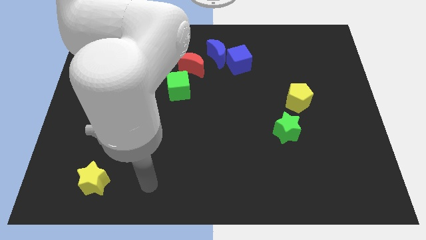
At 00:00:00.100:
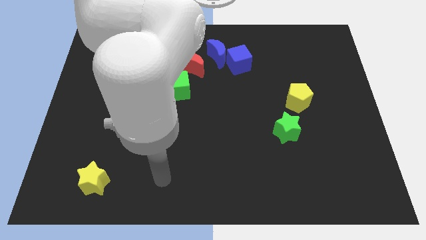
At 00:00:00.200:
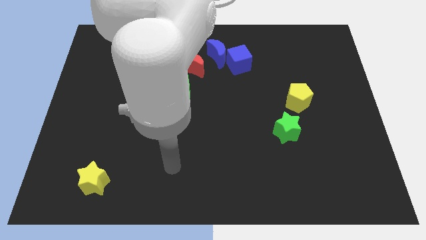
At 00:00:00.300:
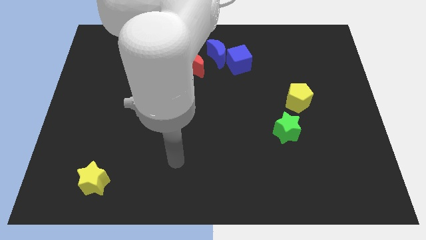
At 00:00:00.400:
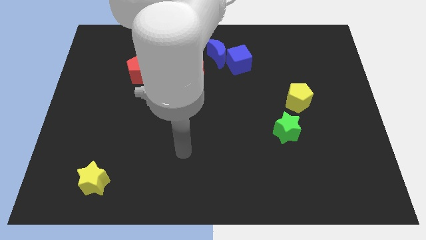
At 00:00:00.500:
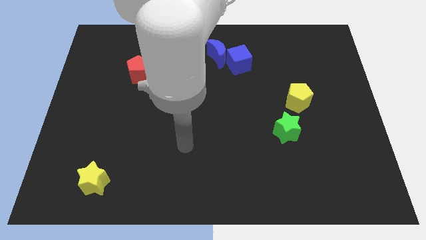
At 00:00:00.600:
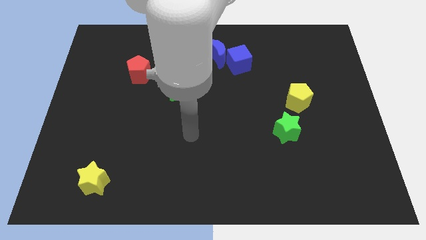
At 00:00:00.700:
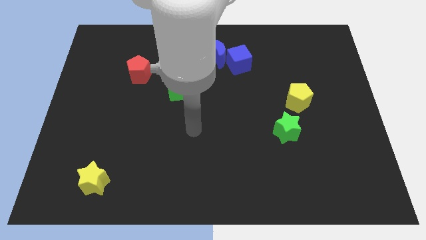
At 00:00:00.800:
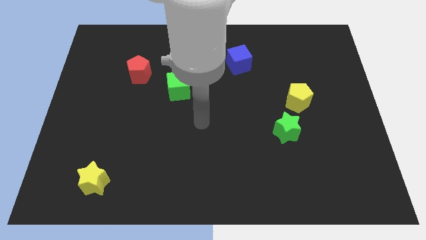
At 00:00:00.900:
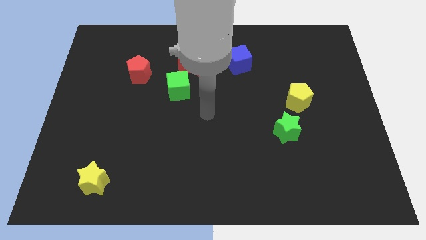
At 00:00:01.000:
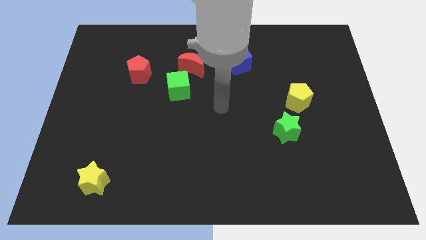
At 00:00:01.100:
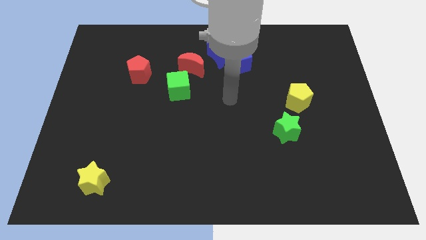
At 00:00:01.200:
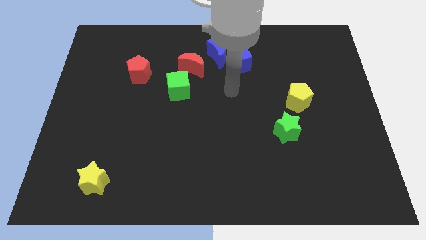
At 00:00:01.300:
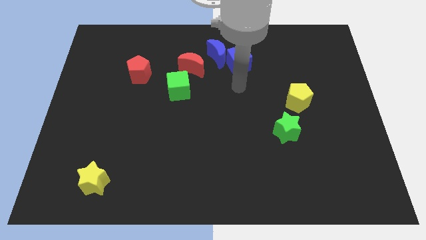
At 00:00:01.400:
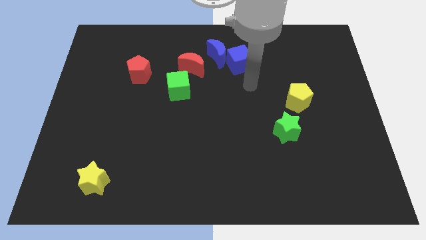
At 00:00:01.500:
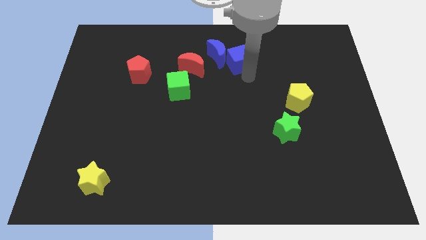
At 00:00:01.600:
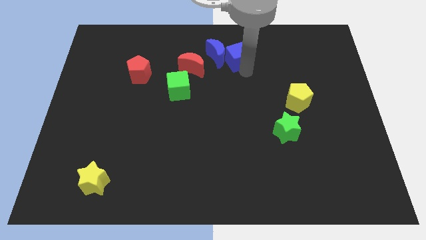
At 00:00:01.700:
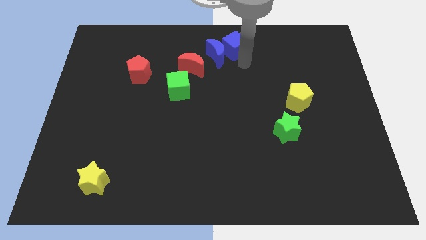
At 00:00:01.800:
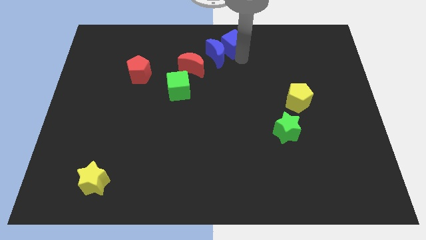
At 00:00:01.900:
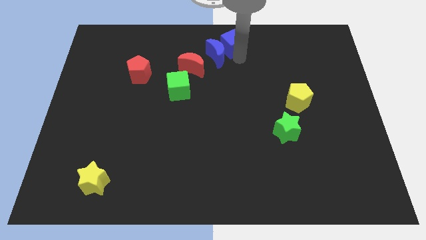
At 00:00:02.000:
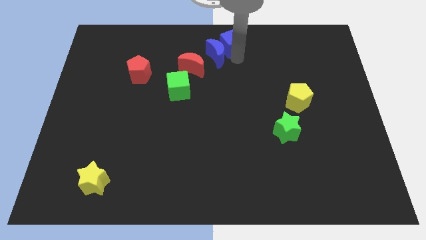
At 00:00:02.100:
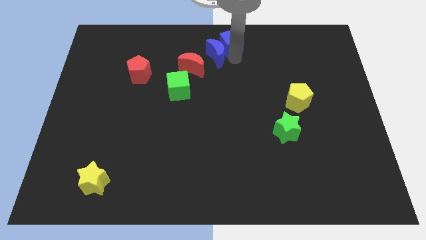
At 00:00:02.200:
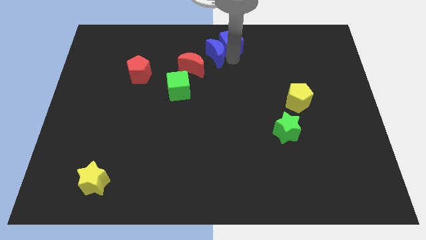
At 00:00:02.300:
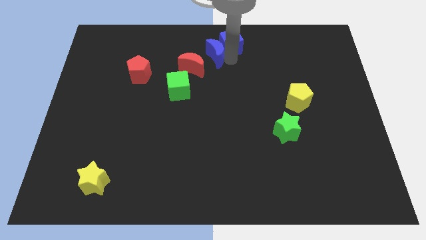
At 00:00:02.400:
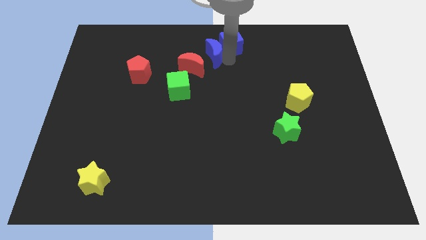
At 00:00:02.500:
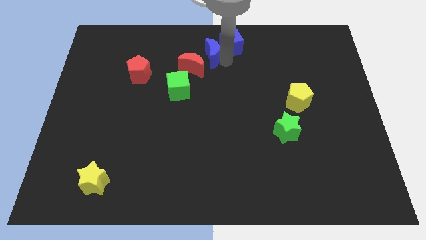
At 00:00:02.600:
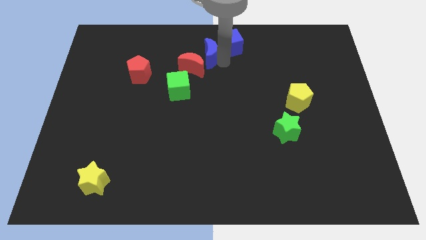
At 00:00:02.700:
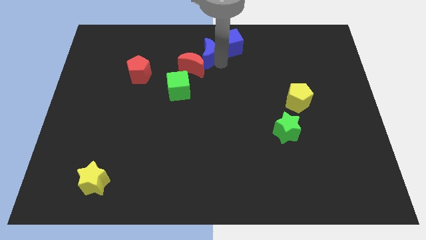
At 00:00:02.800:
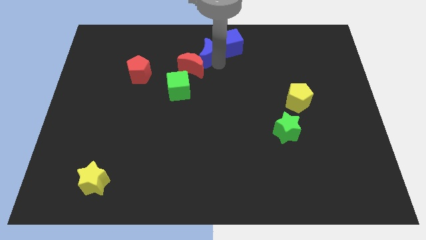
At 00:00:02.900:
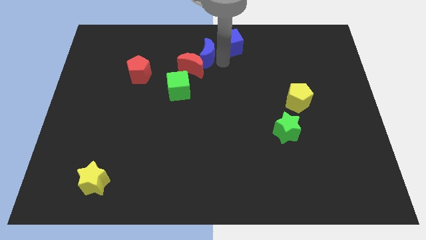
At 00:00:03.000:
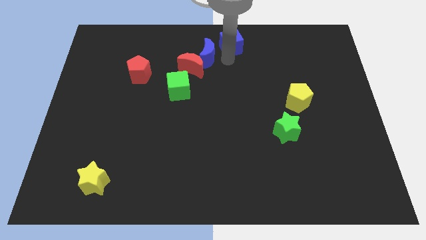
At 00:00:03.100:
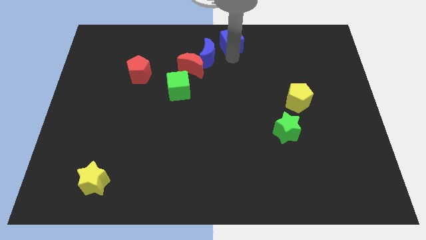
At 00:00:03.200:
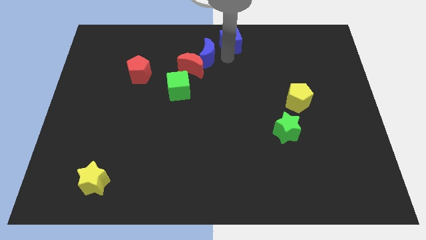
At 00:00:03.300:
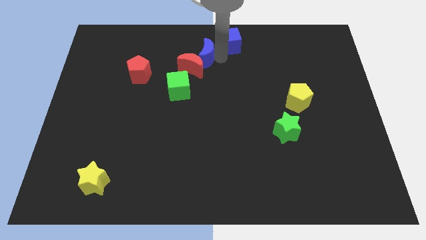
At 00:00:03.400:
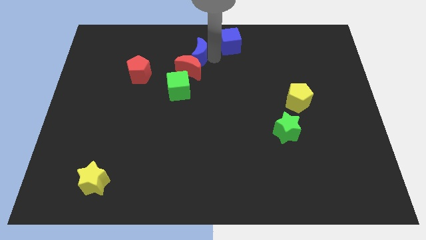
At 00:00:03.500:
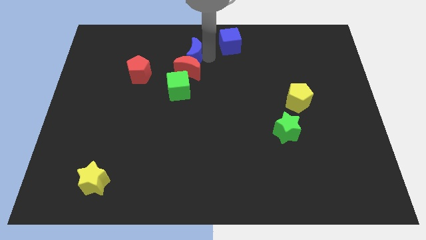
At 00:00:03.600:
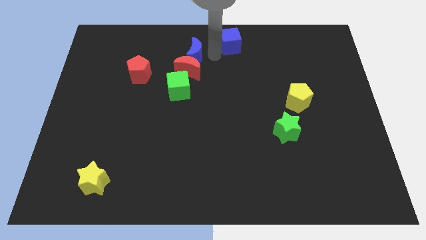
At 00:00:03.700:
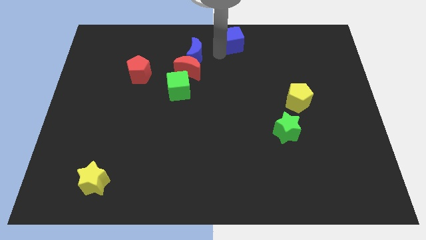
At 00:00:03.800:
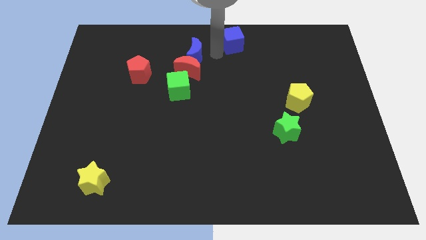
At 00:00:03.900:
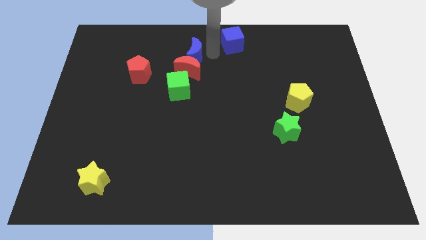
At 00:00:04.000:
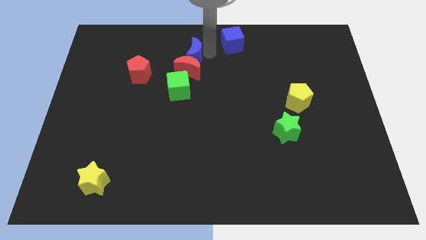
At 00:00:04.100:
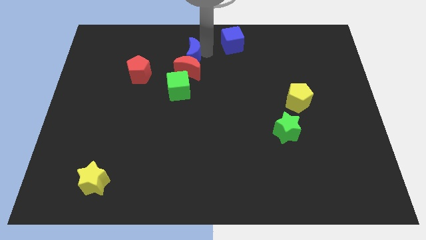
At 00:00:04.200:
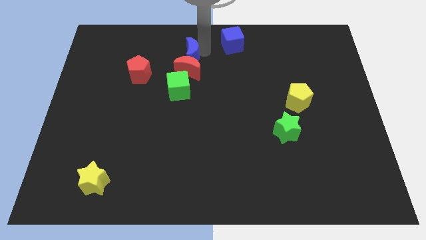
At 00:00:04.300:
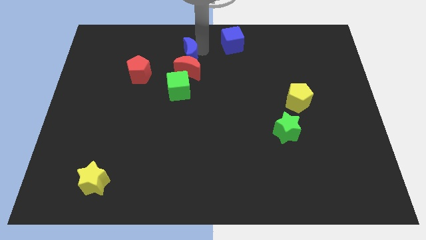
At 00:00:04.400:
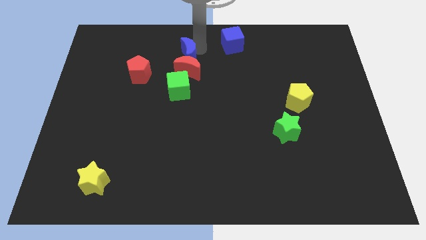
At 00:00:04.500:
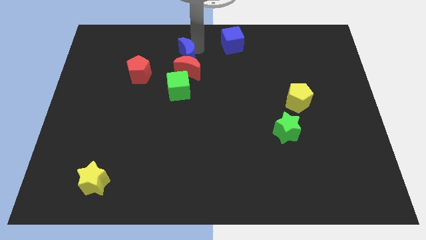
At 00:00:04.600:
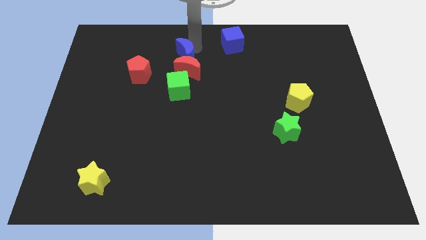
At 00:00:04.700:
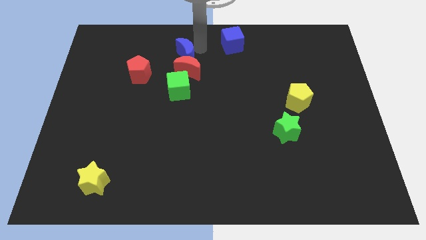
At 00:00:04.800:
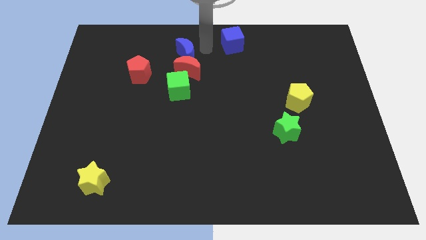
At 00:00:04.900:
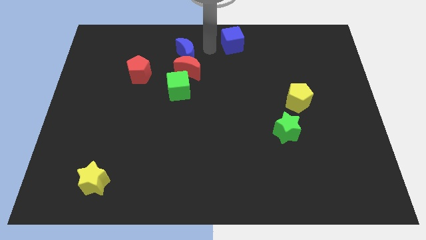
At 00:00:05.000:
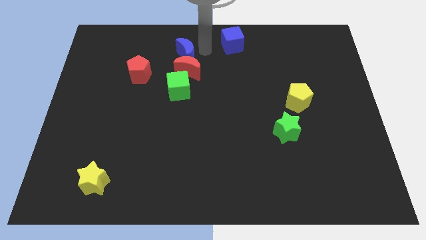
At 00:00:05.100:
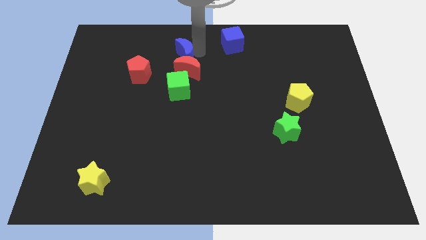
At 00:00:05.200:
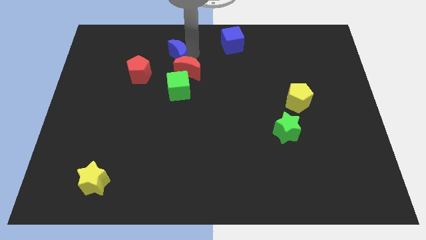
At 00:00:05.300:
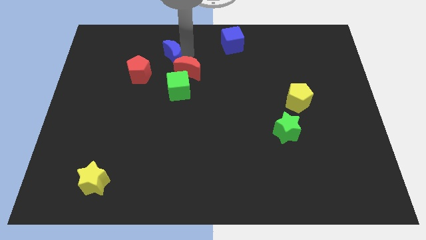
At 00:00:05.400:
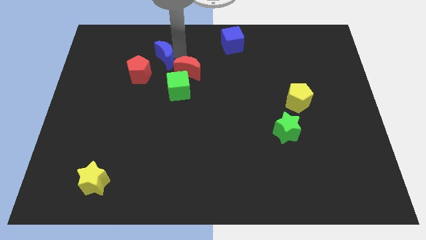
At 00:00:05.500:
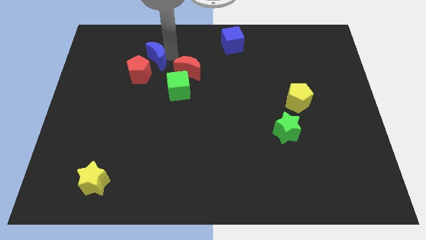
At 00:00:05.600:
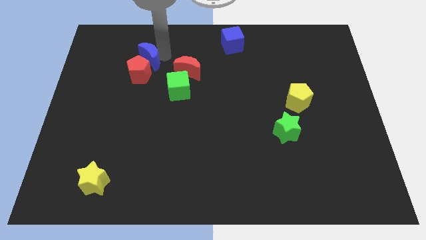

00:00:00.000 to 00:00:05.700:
slide the blue moon to the red pentagon

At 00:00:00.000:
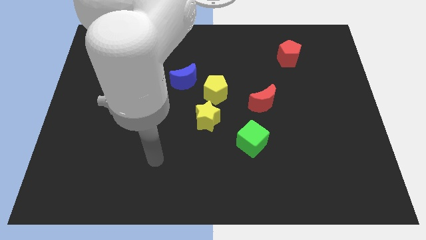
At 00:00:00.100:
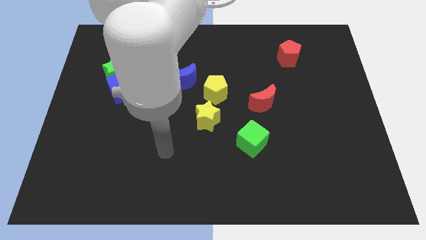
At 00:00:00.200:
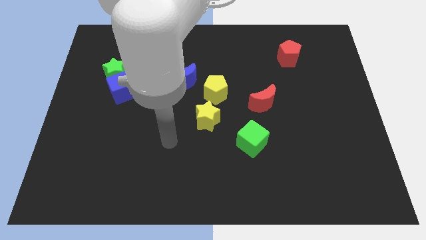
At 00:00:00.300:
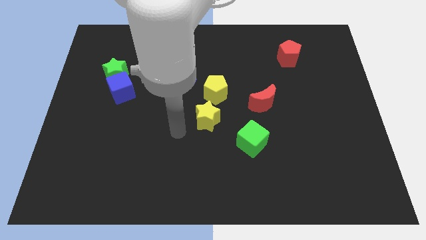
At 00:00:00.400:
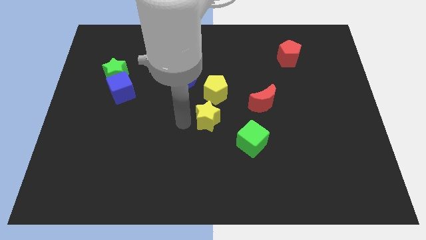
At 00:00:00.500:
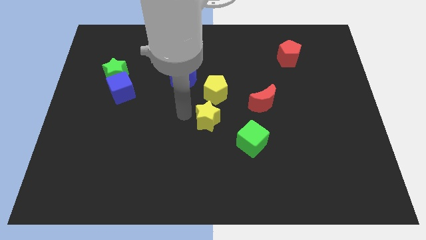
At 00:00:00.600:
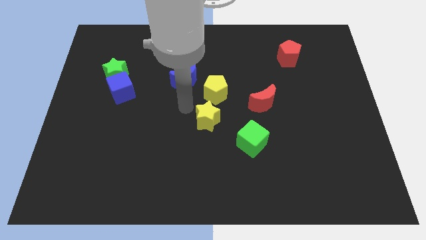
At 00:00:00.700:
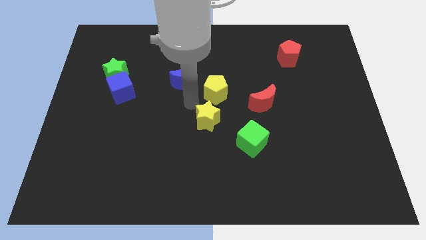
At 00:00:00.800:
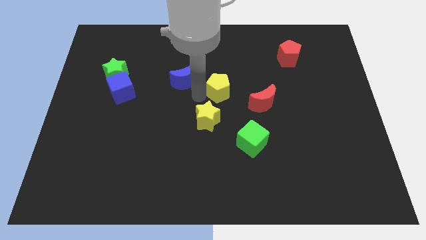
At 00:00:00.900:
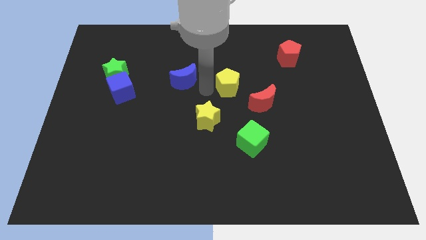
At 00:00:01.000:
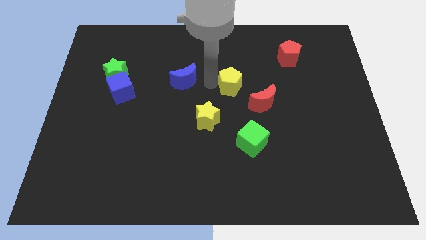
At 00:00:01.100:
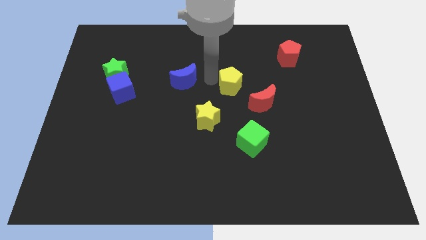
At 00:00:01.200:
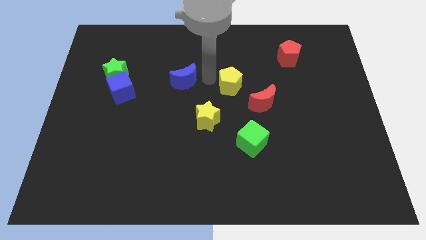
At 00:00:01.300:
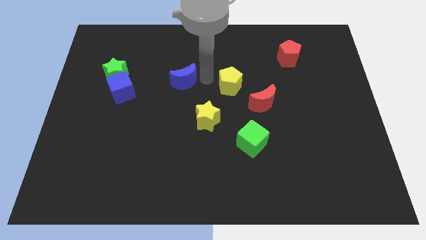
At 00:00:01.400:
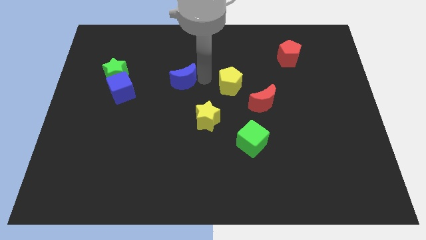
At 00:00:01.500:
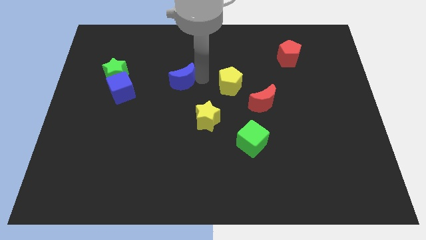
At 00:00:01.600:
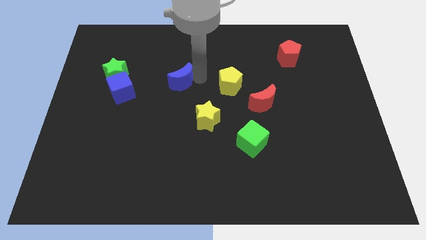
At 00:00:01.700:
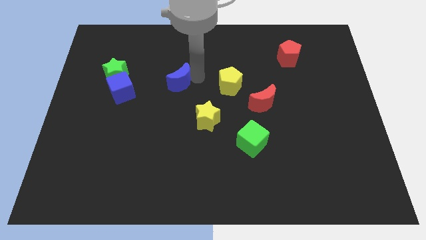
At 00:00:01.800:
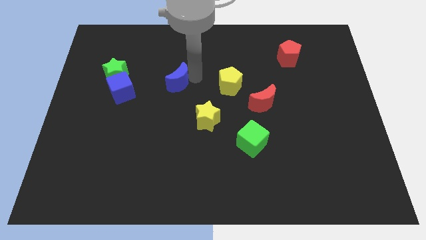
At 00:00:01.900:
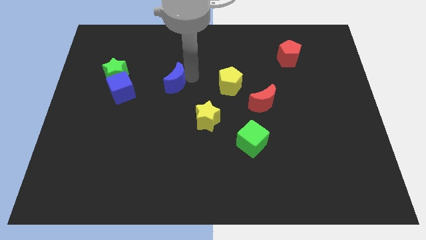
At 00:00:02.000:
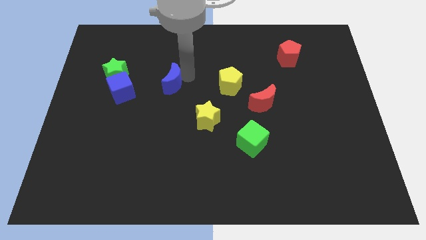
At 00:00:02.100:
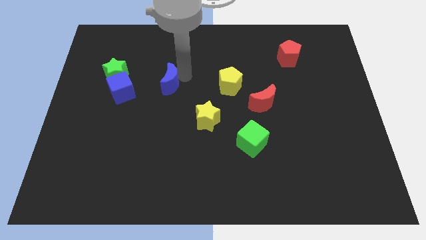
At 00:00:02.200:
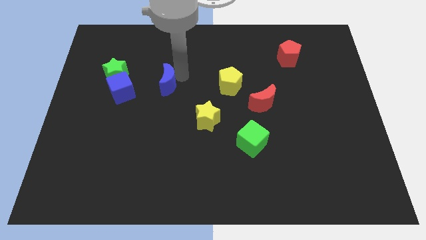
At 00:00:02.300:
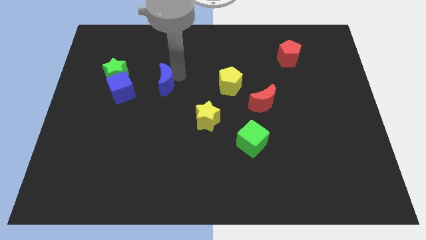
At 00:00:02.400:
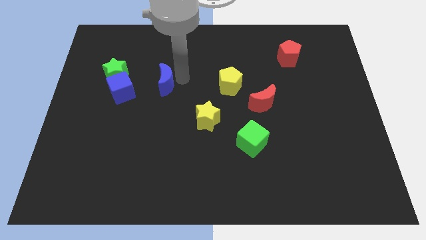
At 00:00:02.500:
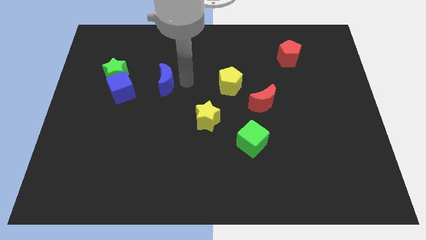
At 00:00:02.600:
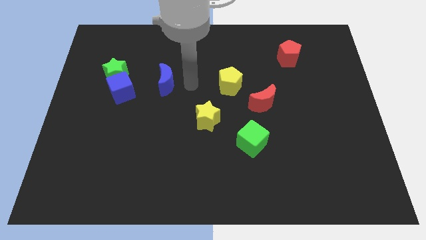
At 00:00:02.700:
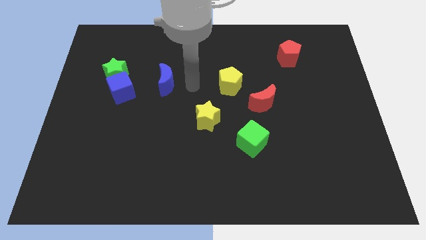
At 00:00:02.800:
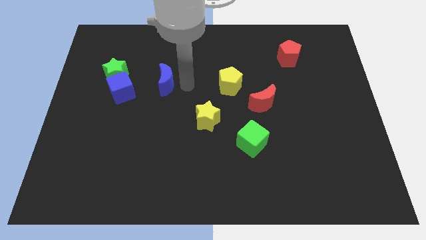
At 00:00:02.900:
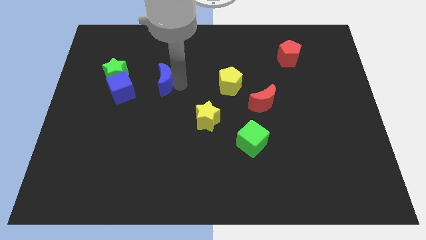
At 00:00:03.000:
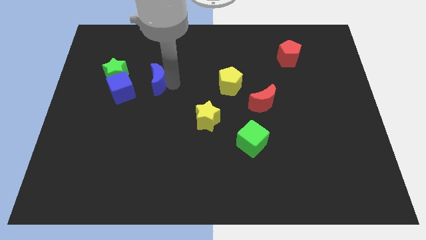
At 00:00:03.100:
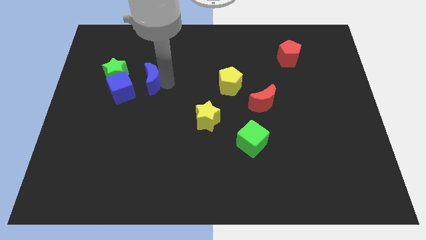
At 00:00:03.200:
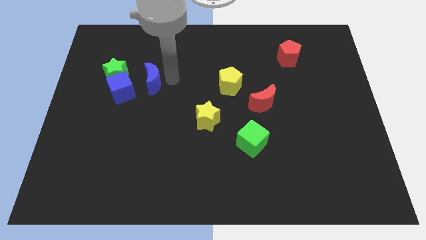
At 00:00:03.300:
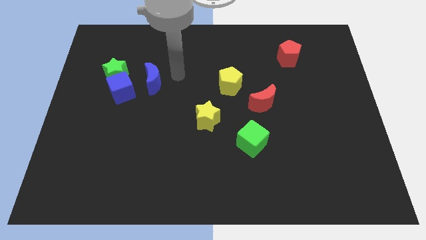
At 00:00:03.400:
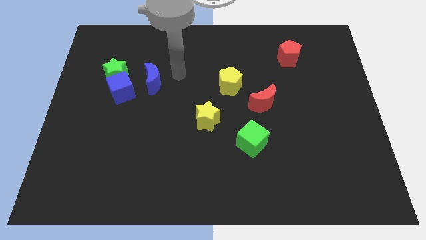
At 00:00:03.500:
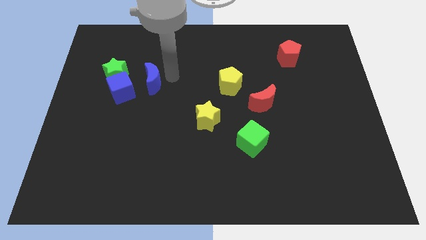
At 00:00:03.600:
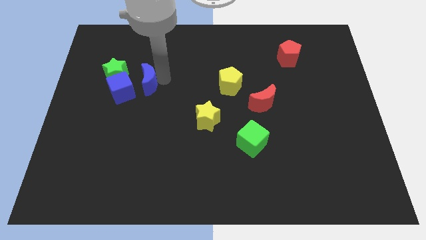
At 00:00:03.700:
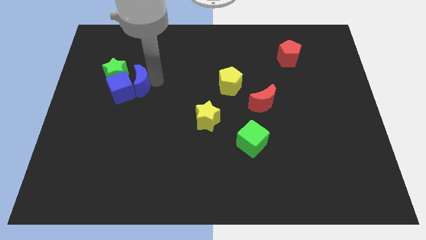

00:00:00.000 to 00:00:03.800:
move the blue moon close to the blue cube
